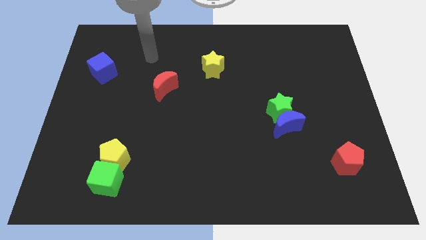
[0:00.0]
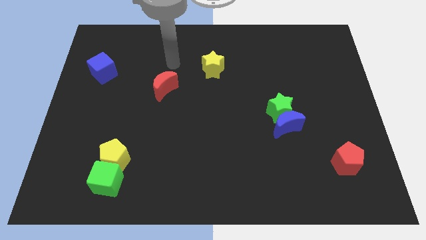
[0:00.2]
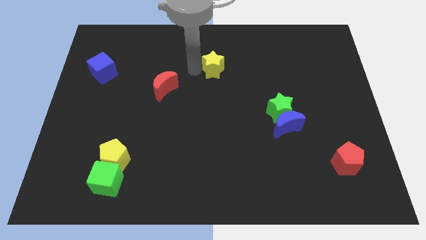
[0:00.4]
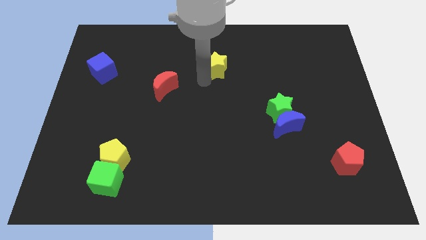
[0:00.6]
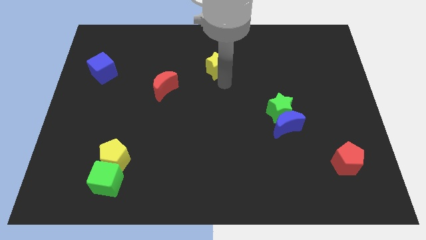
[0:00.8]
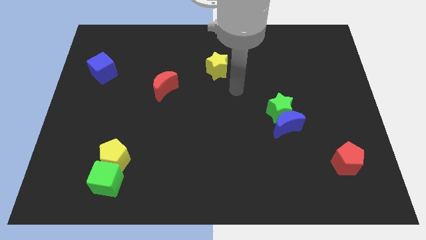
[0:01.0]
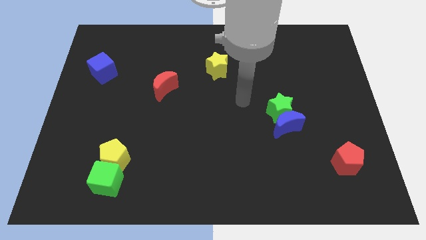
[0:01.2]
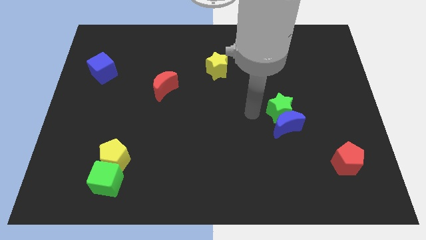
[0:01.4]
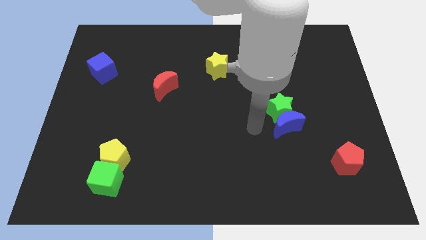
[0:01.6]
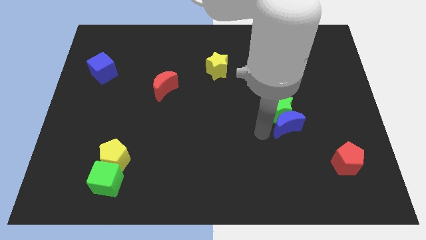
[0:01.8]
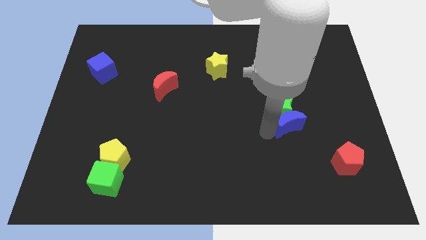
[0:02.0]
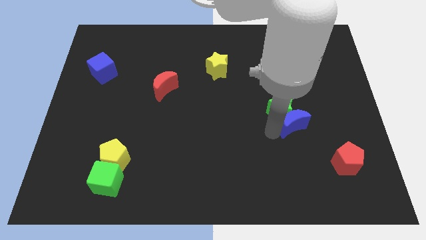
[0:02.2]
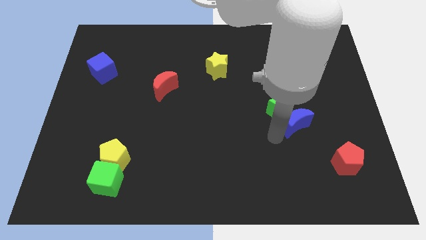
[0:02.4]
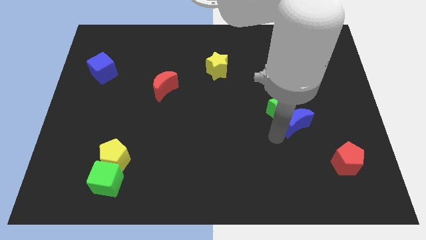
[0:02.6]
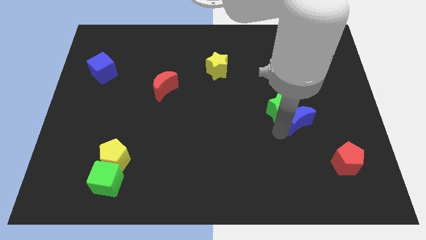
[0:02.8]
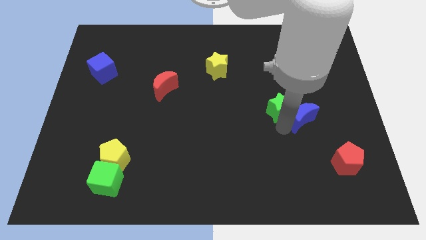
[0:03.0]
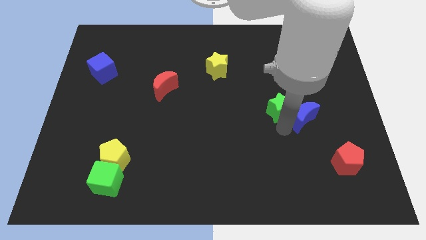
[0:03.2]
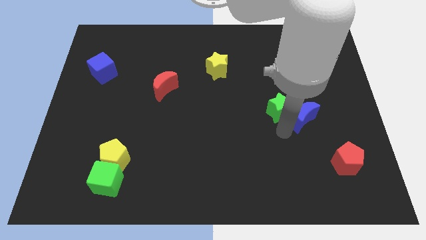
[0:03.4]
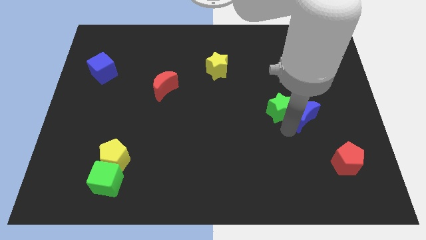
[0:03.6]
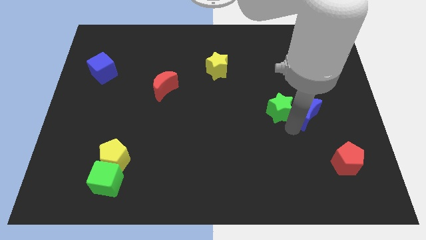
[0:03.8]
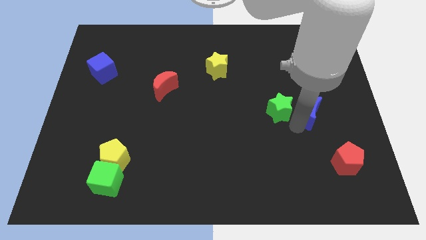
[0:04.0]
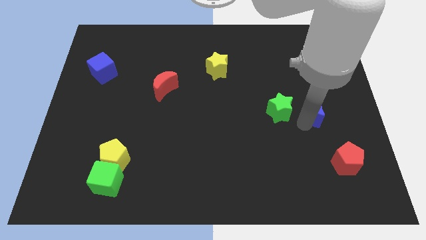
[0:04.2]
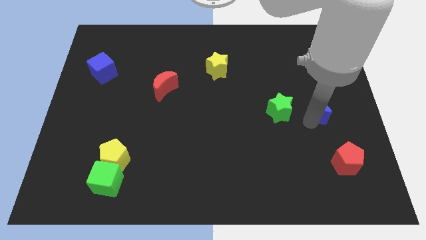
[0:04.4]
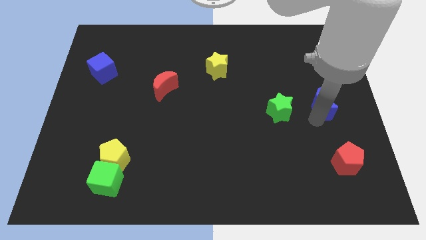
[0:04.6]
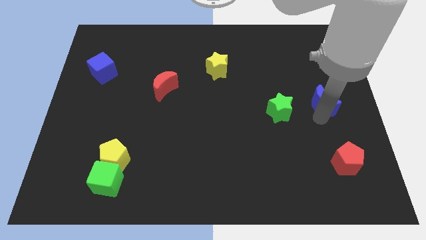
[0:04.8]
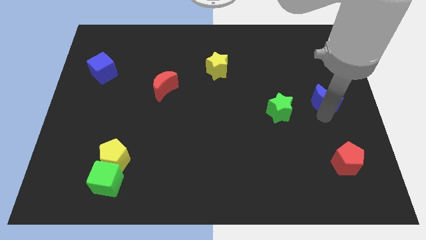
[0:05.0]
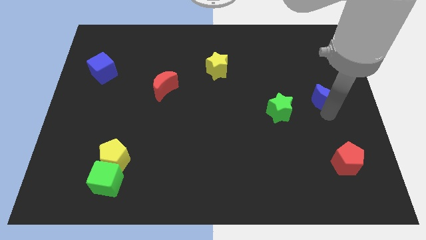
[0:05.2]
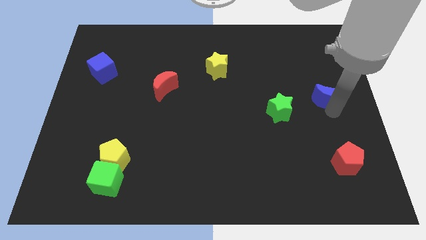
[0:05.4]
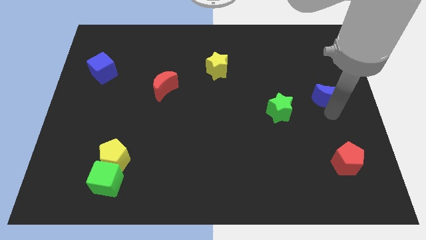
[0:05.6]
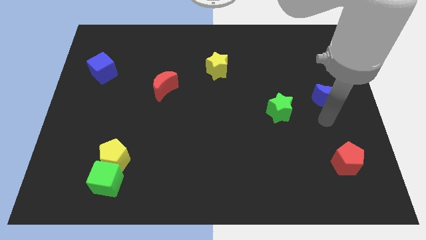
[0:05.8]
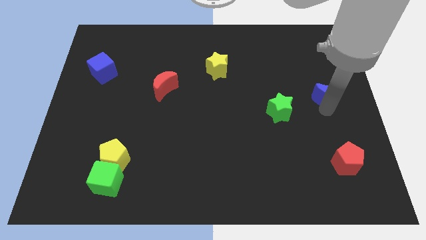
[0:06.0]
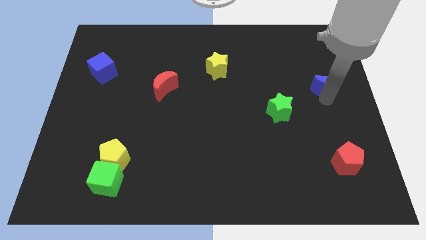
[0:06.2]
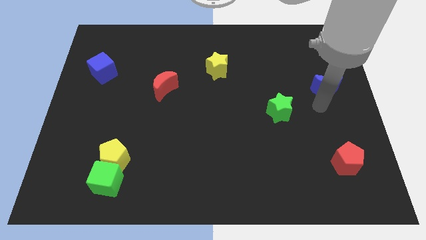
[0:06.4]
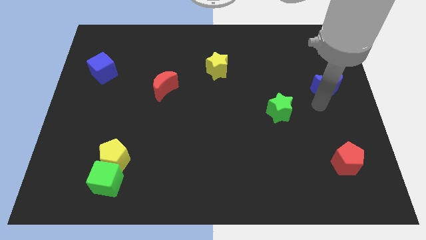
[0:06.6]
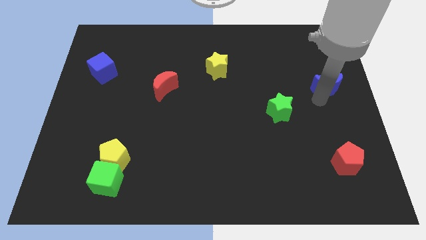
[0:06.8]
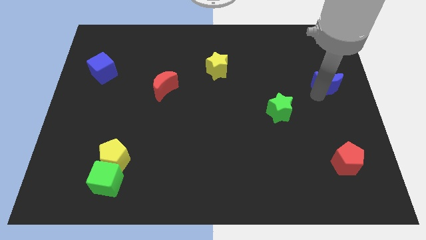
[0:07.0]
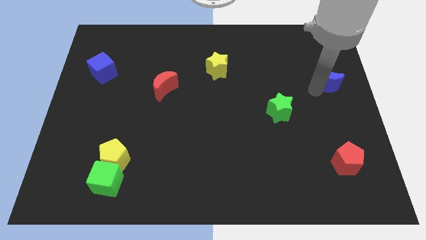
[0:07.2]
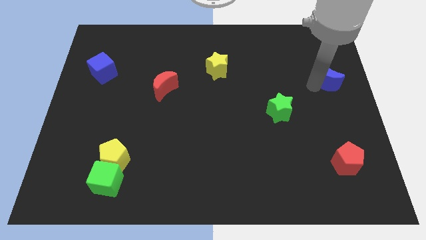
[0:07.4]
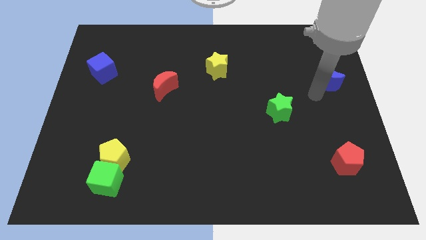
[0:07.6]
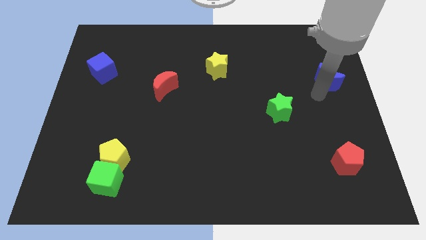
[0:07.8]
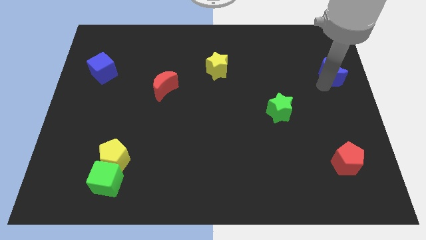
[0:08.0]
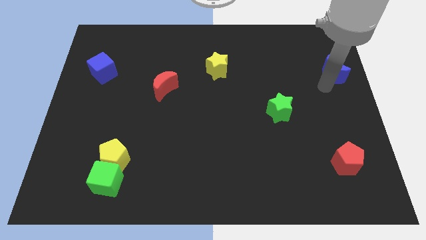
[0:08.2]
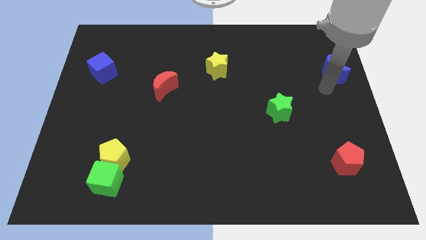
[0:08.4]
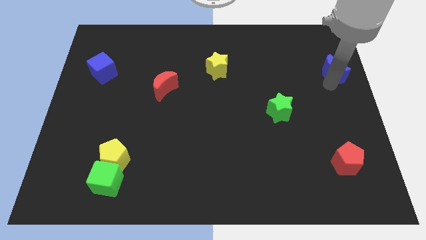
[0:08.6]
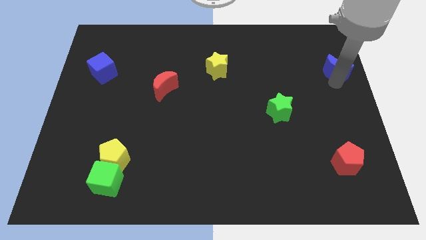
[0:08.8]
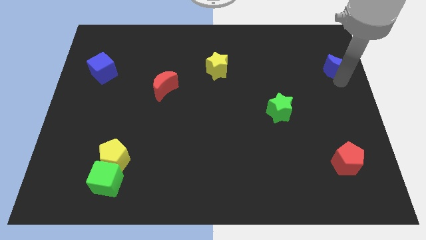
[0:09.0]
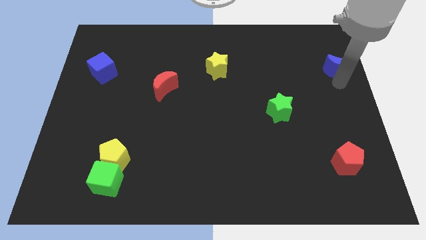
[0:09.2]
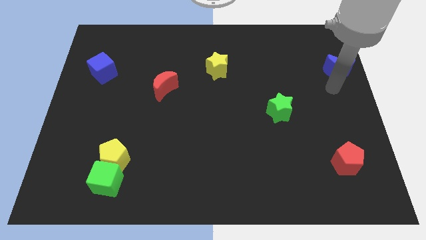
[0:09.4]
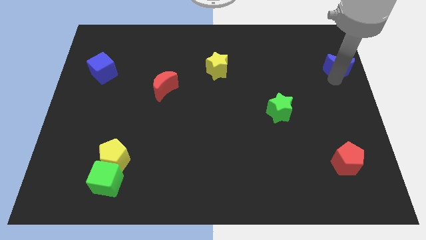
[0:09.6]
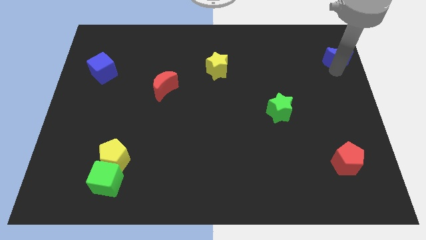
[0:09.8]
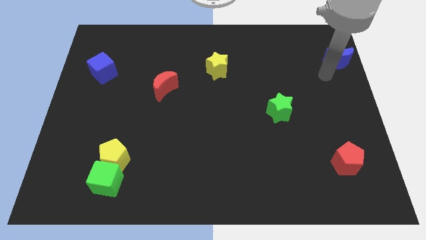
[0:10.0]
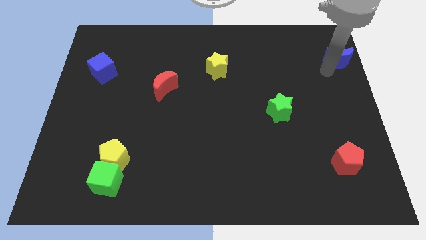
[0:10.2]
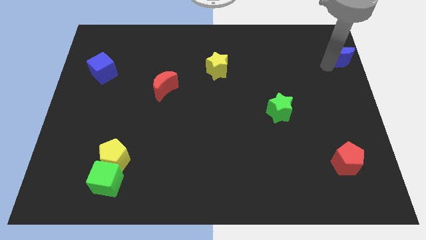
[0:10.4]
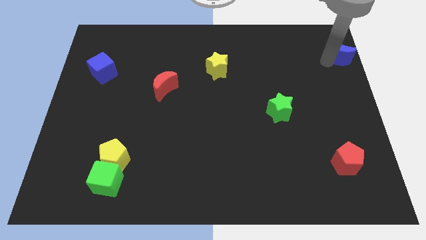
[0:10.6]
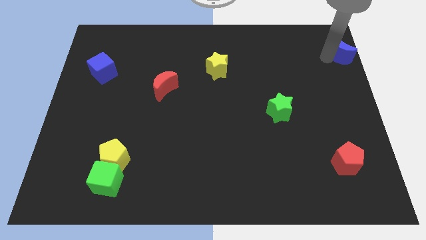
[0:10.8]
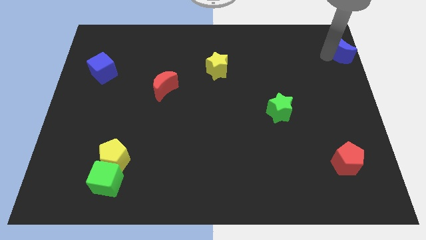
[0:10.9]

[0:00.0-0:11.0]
slide the blue moon to the top right of the board

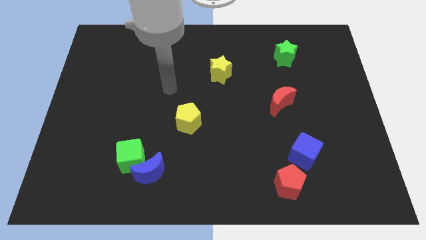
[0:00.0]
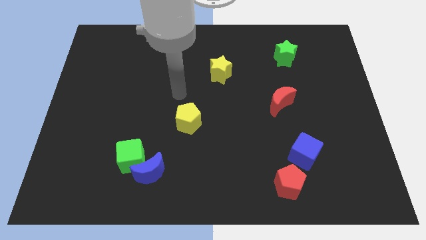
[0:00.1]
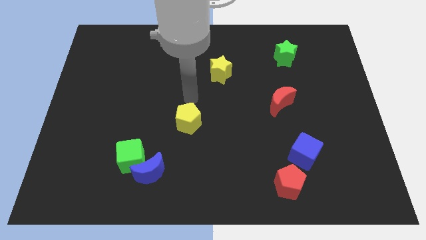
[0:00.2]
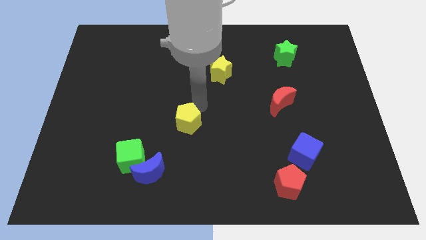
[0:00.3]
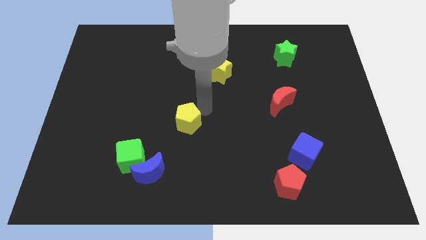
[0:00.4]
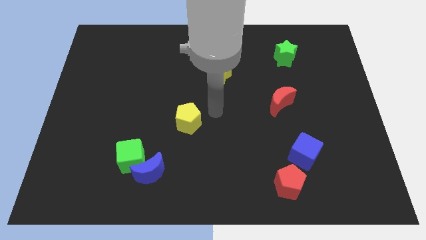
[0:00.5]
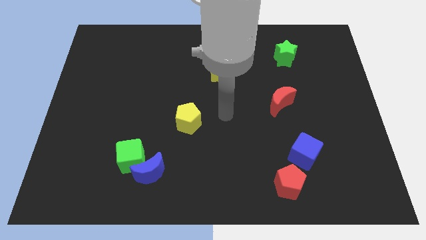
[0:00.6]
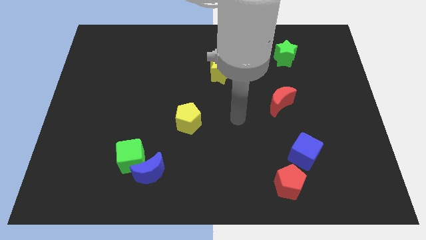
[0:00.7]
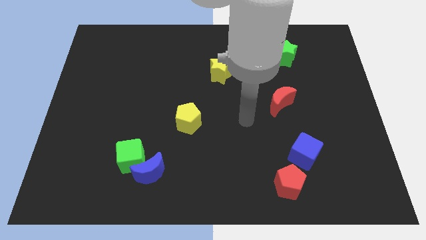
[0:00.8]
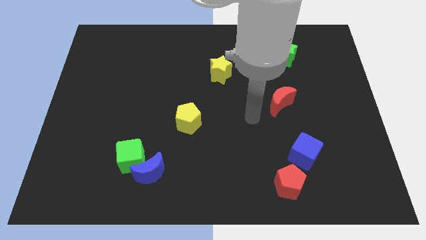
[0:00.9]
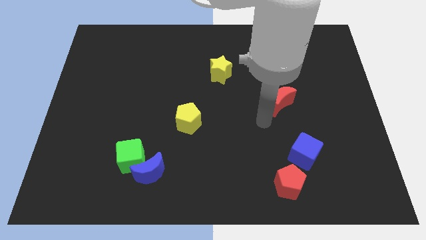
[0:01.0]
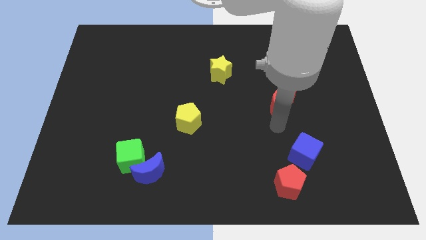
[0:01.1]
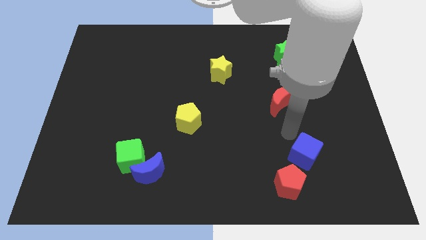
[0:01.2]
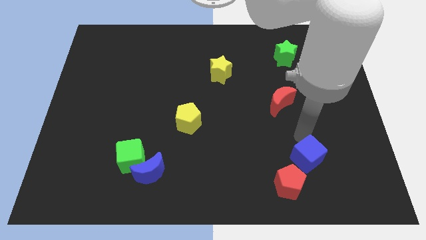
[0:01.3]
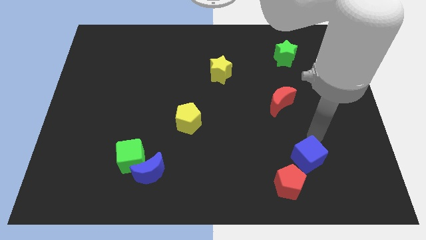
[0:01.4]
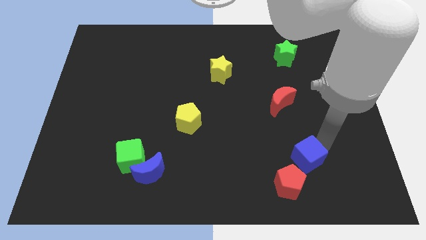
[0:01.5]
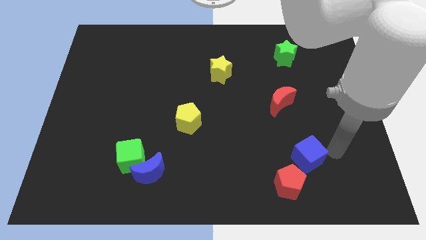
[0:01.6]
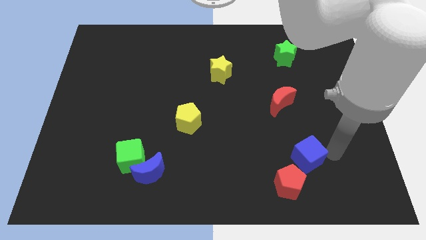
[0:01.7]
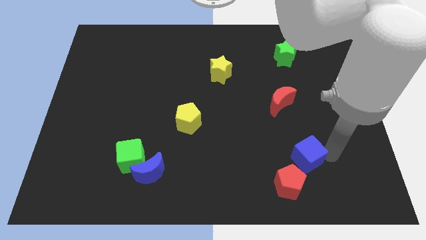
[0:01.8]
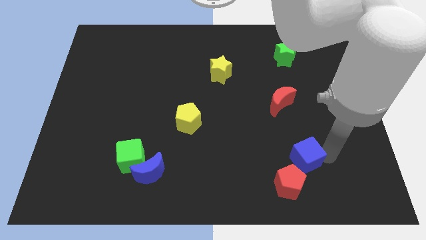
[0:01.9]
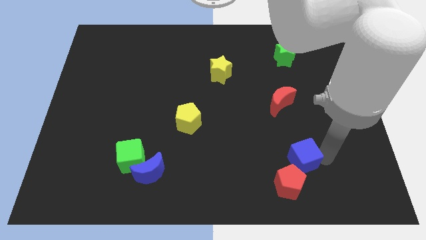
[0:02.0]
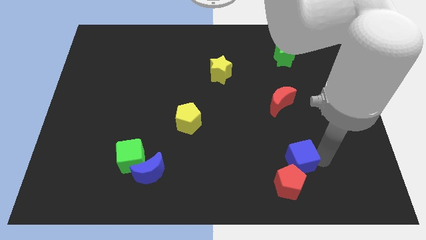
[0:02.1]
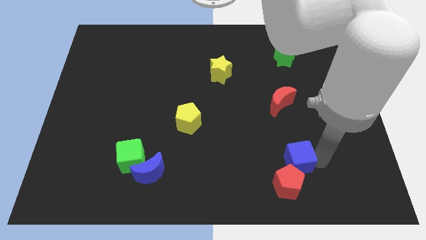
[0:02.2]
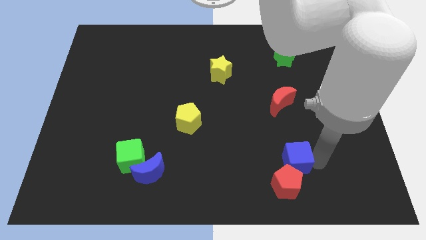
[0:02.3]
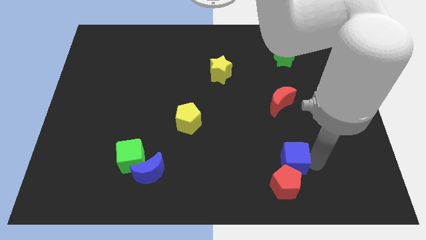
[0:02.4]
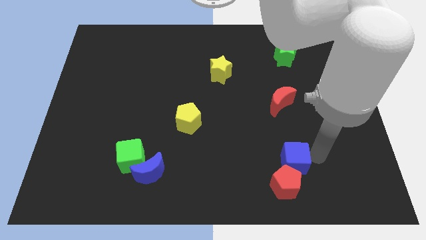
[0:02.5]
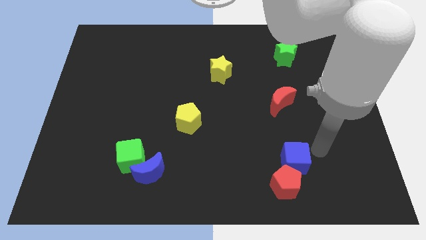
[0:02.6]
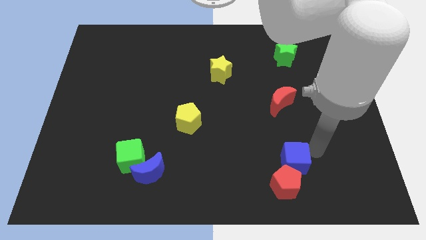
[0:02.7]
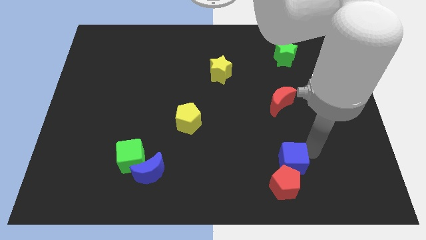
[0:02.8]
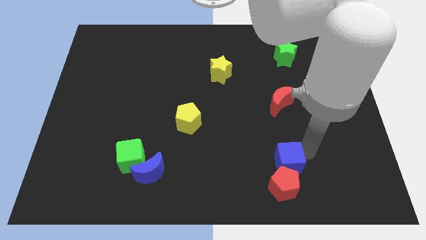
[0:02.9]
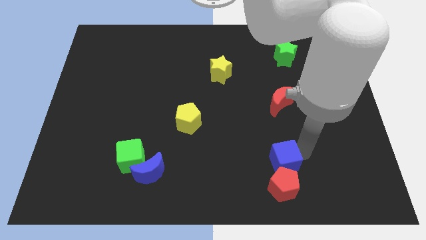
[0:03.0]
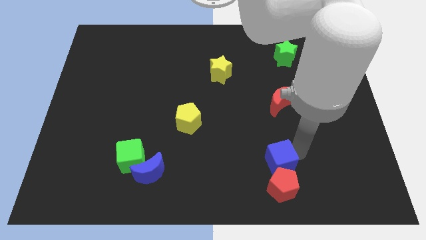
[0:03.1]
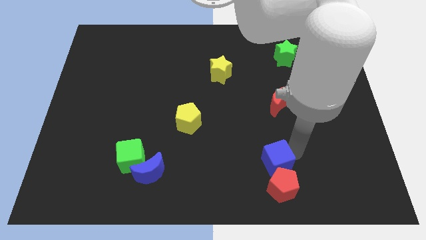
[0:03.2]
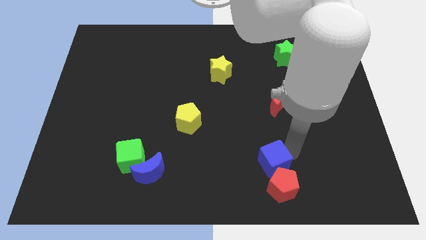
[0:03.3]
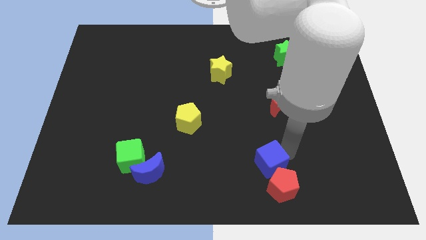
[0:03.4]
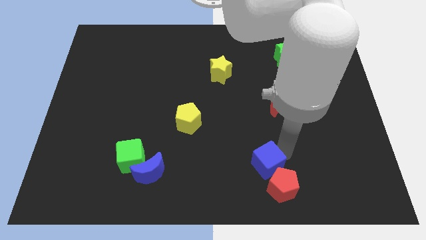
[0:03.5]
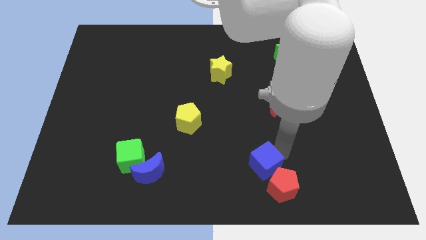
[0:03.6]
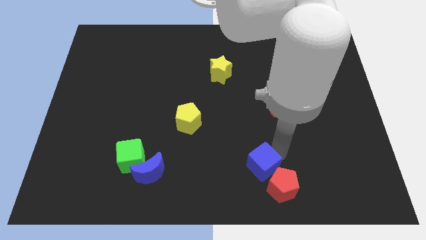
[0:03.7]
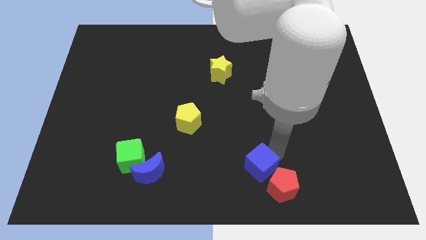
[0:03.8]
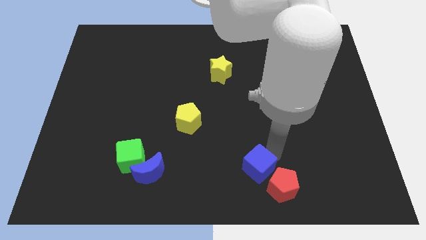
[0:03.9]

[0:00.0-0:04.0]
slide the blue cube to the bottom
